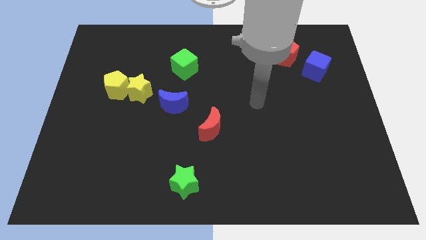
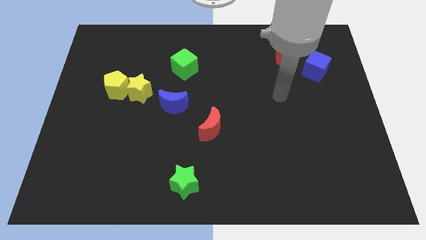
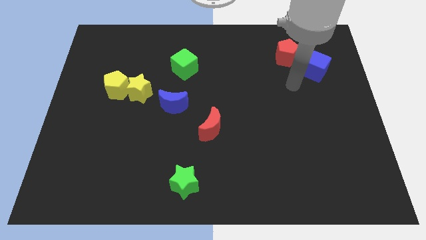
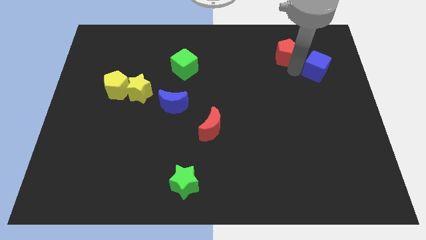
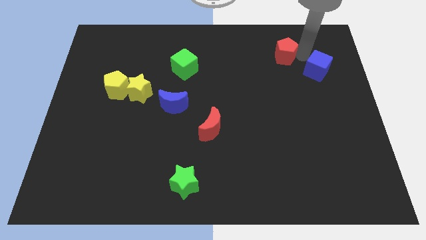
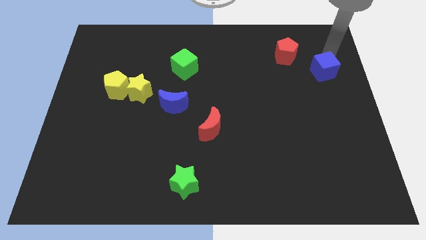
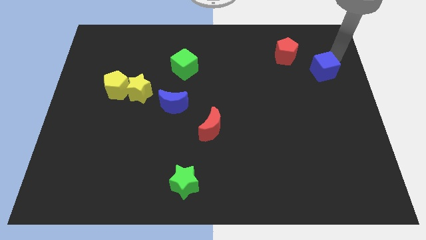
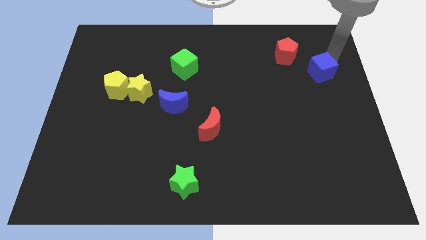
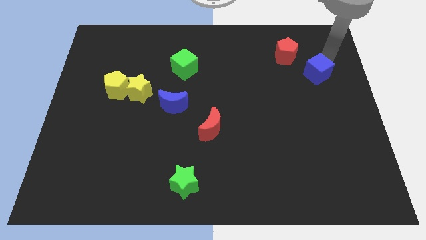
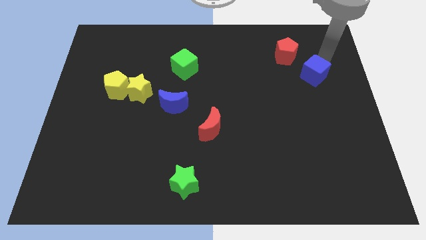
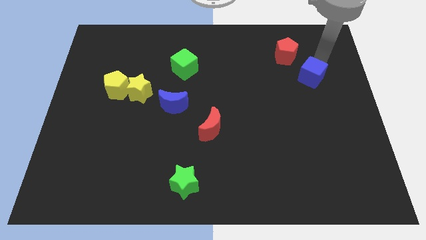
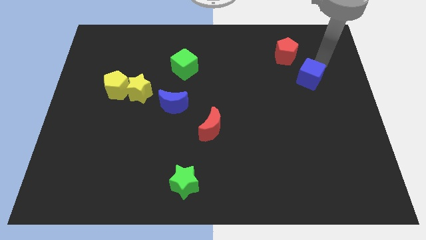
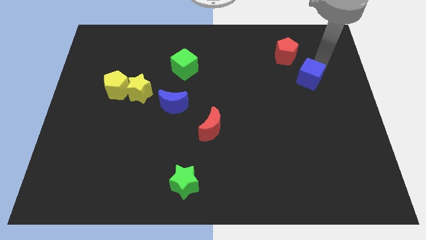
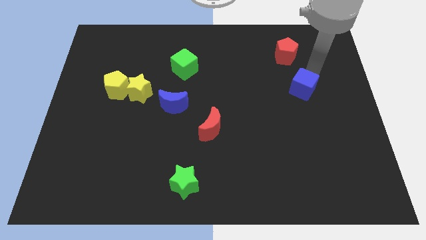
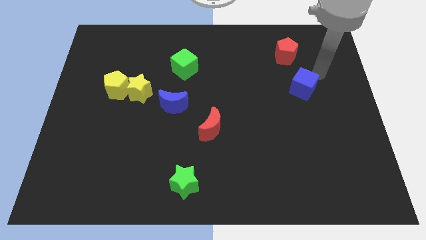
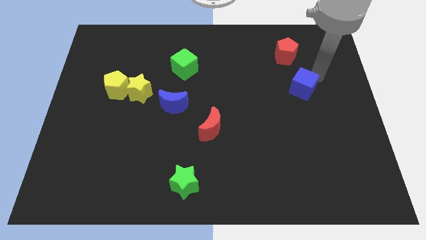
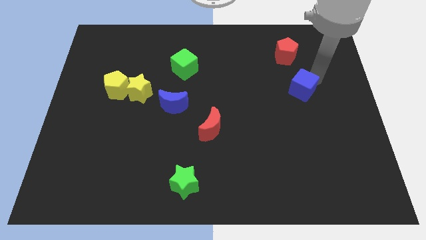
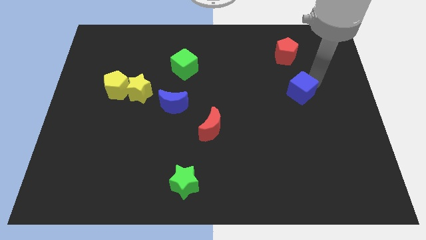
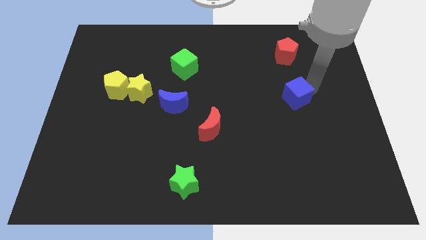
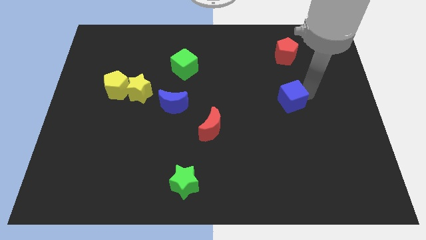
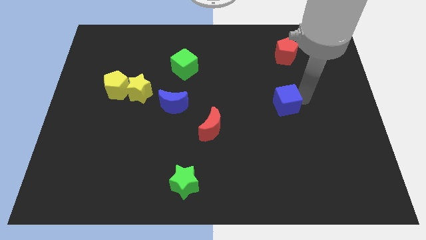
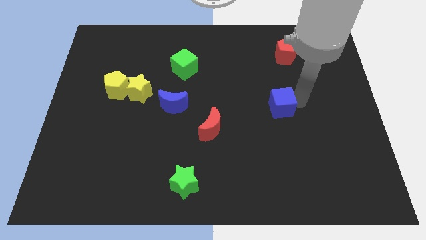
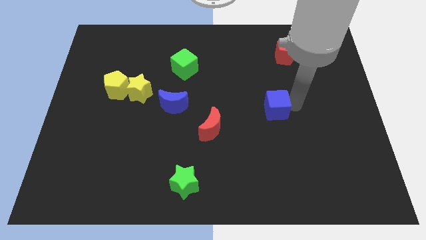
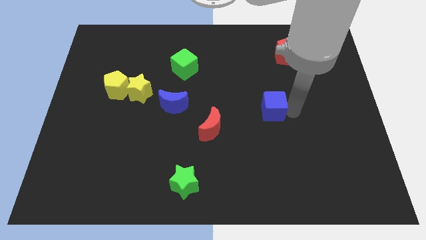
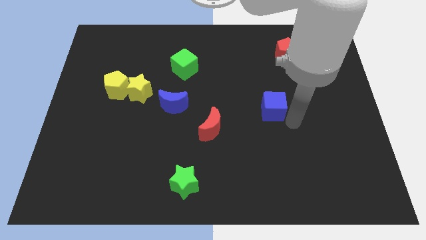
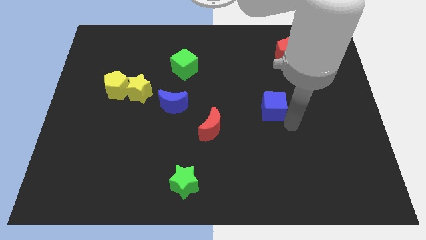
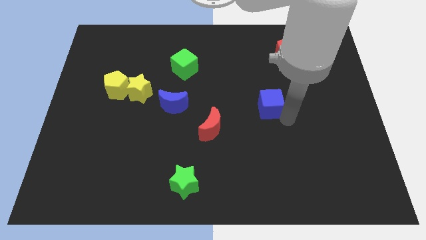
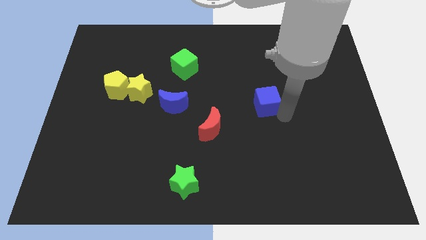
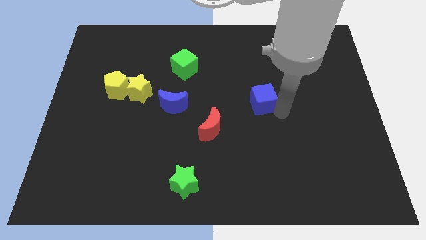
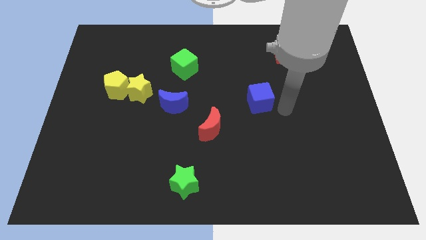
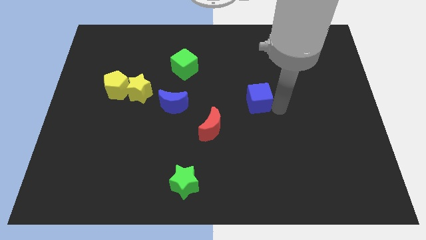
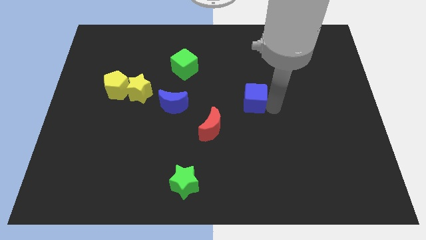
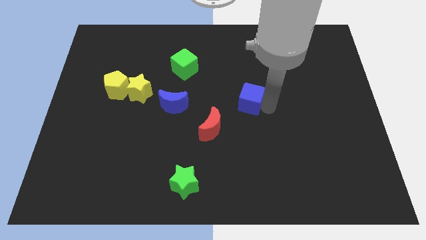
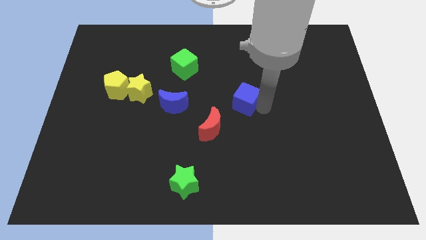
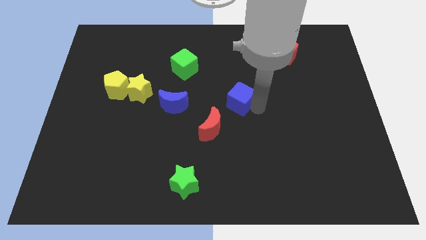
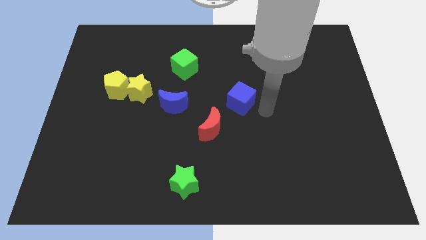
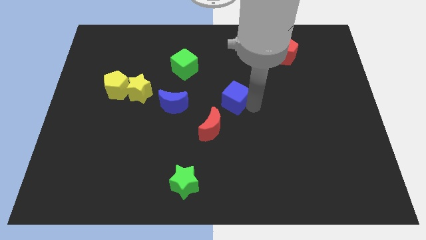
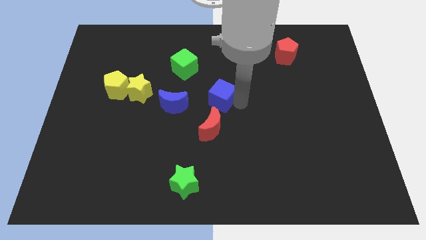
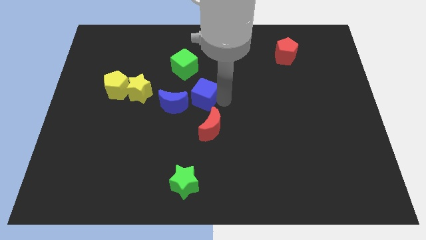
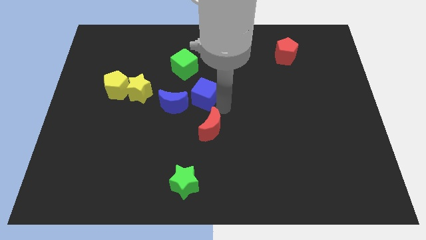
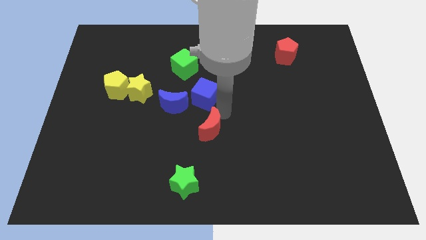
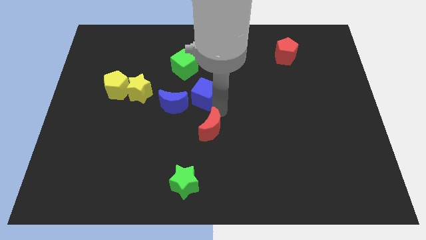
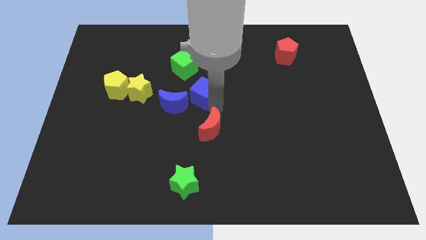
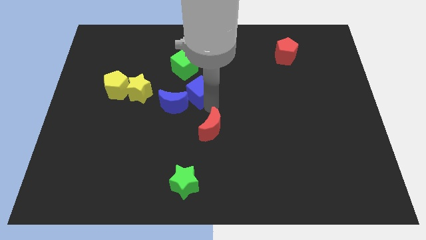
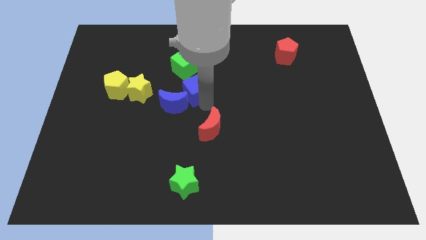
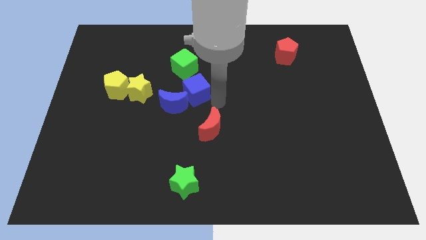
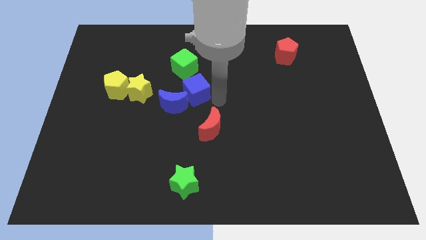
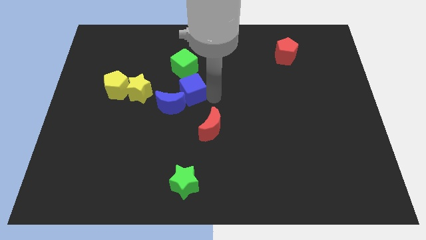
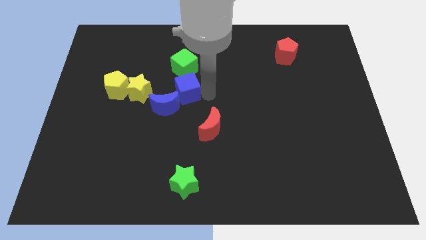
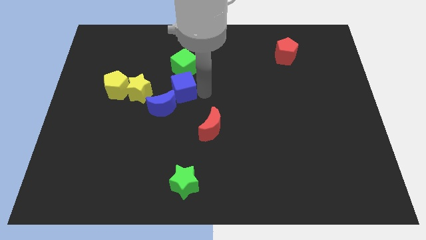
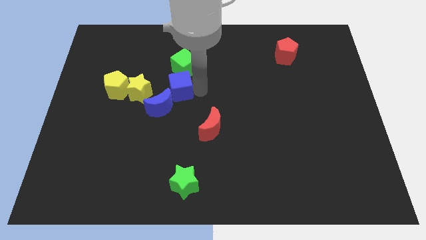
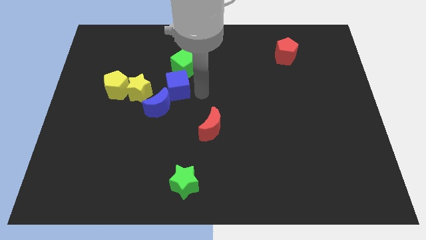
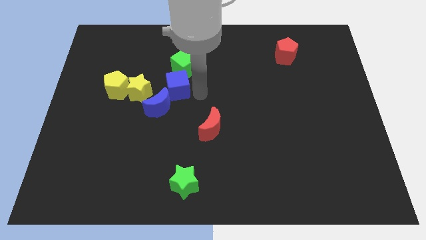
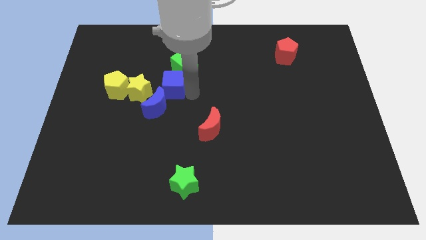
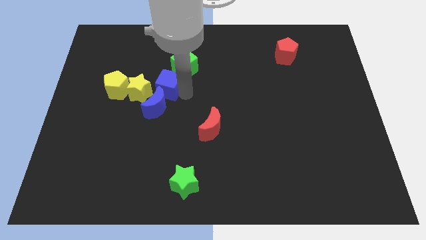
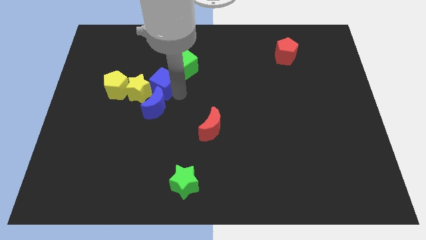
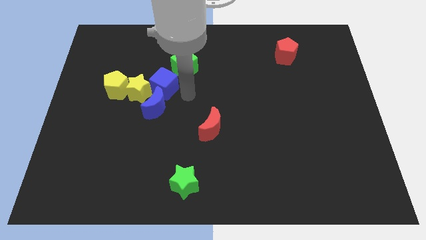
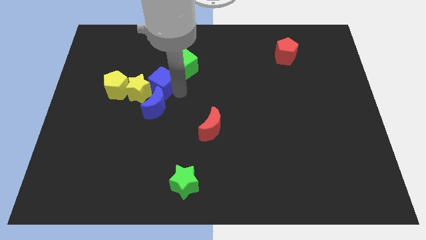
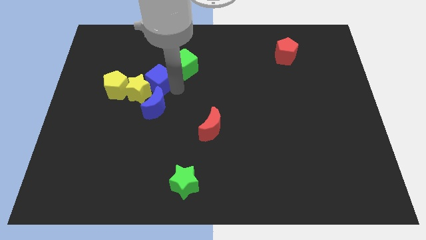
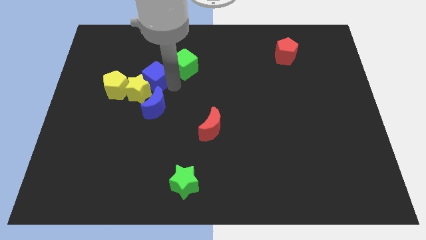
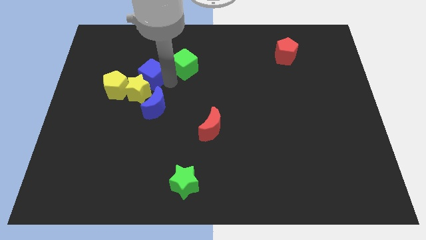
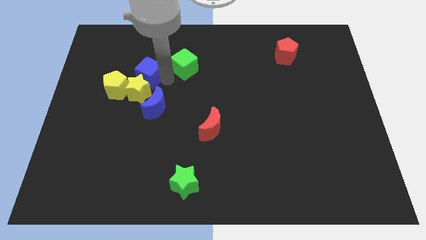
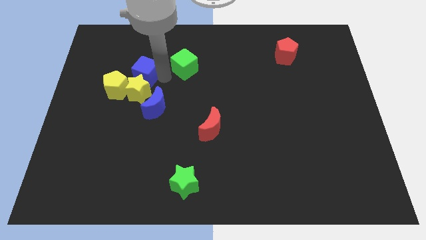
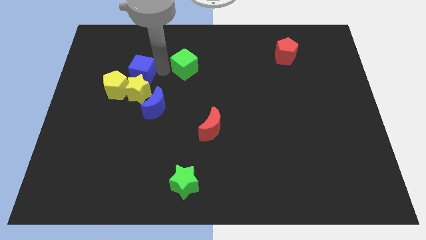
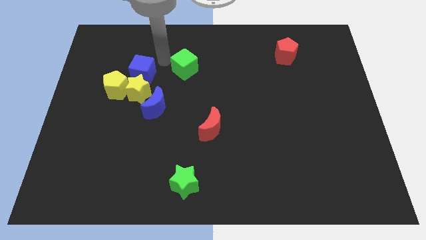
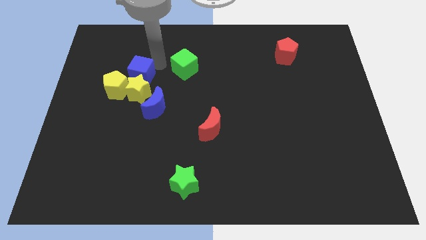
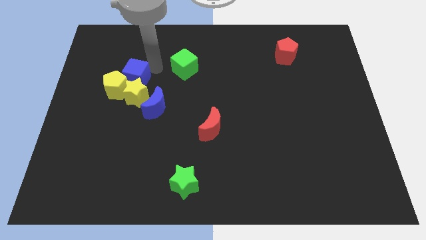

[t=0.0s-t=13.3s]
put the blue cube close to the yellow pentagon

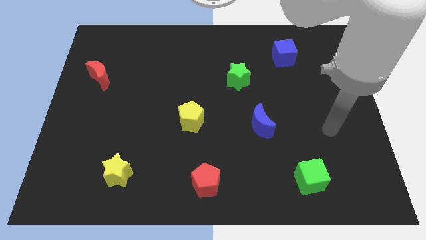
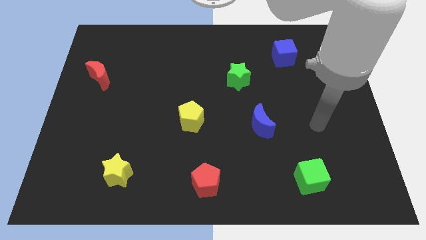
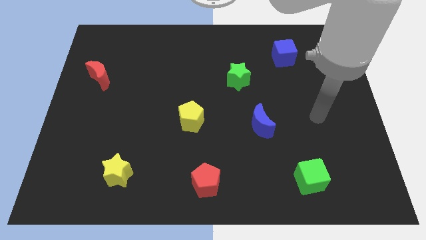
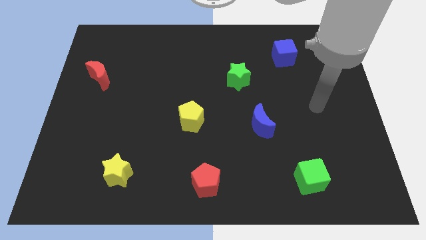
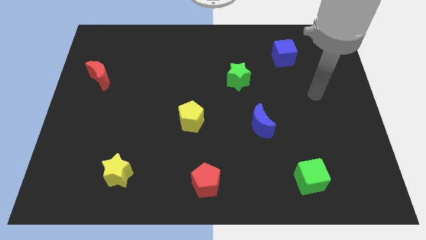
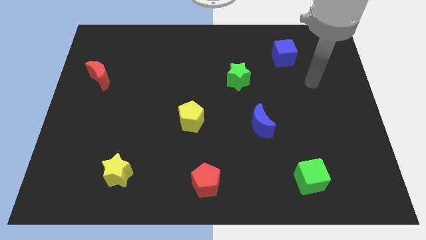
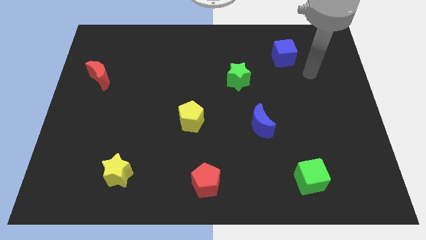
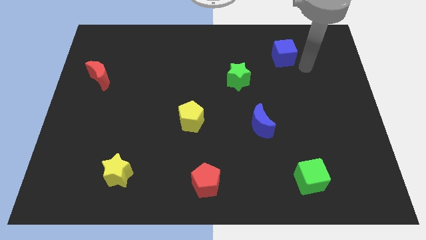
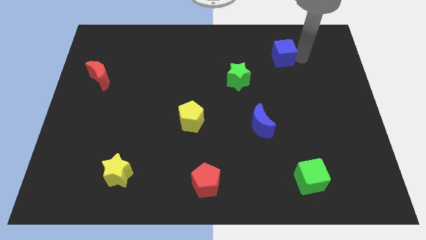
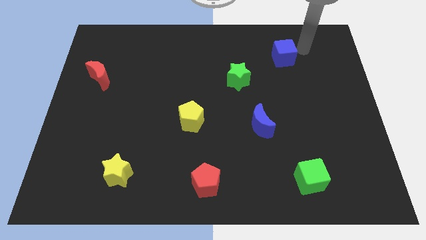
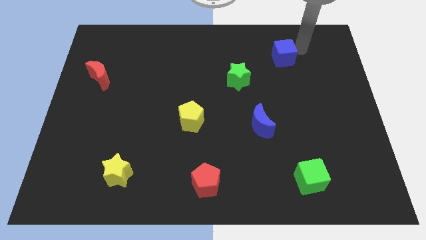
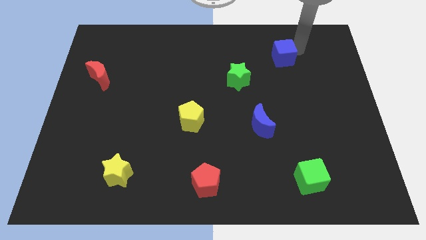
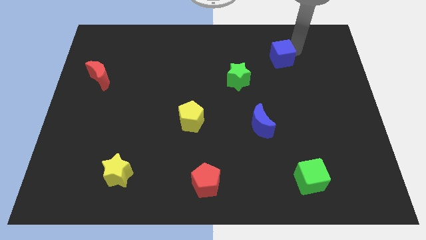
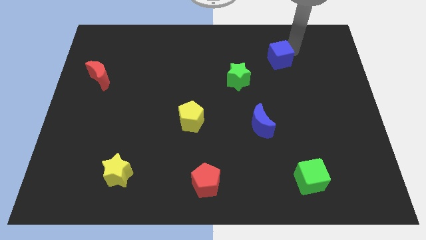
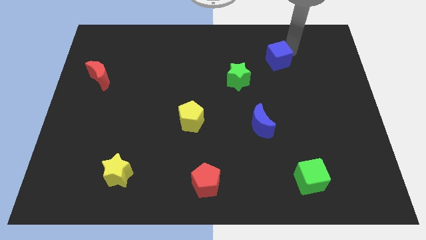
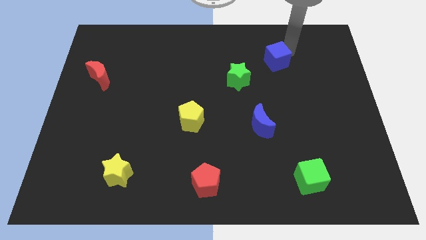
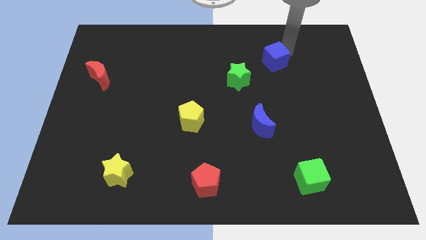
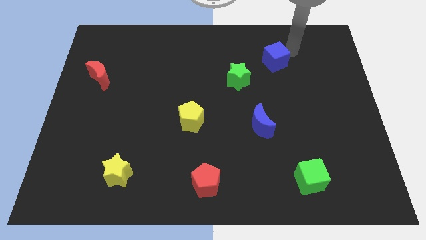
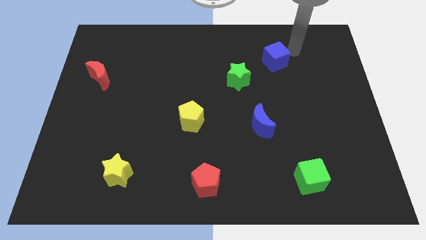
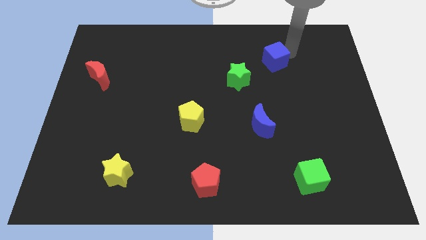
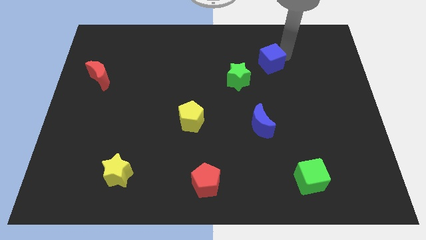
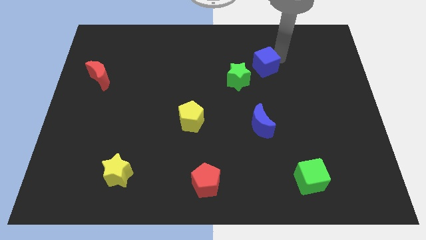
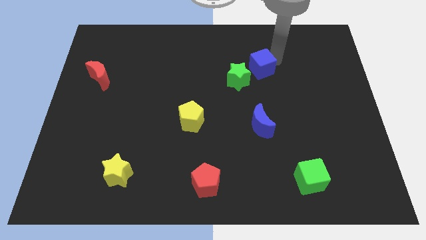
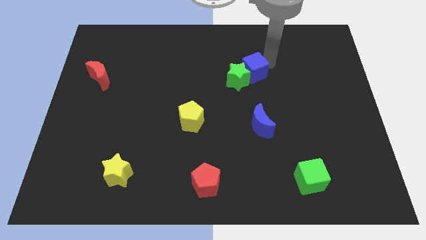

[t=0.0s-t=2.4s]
slide the blue cube next to the green star
